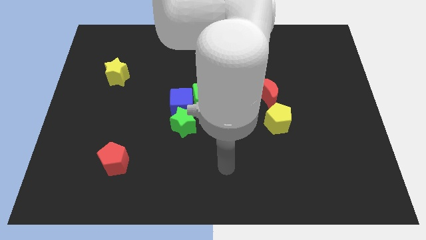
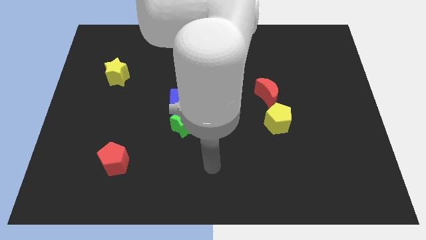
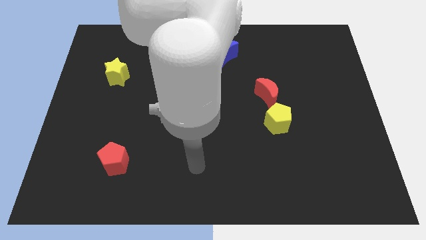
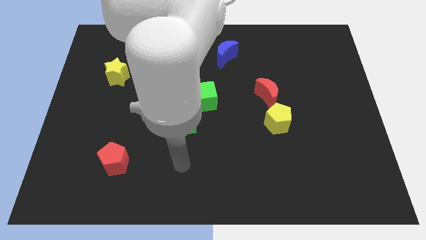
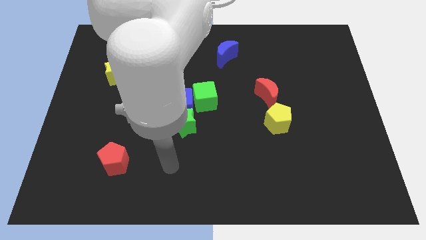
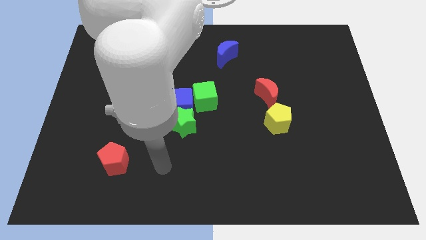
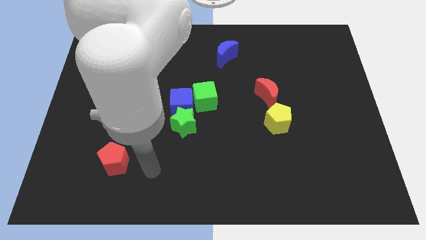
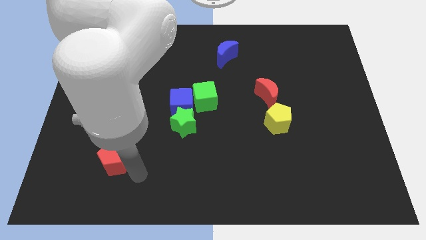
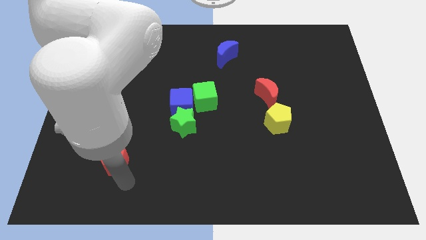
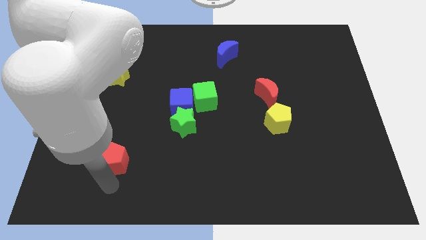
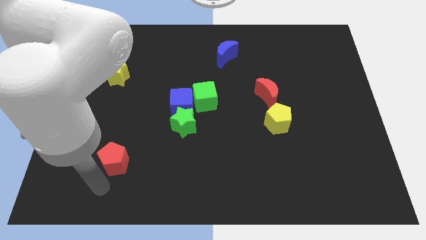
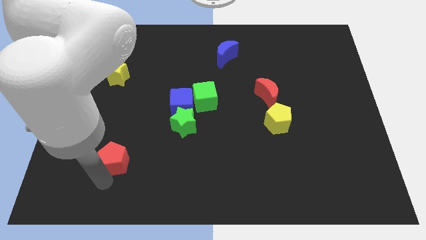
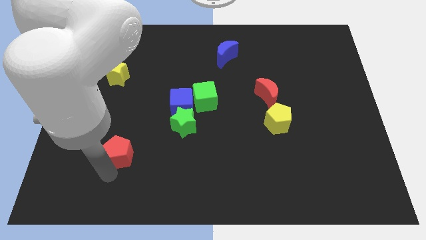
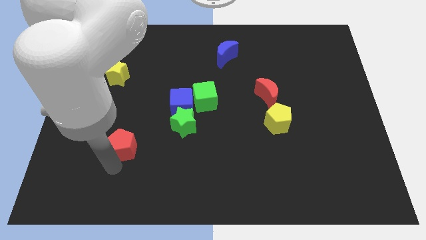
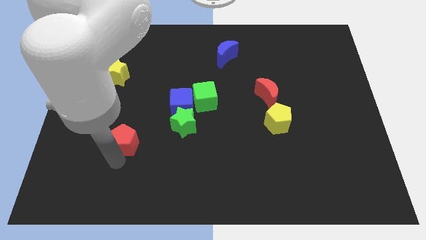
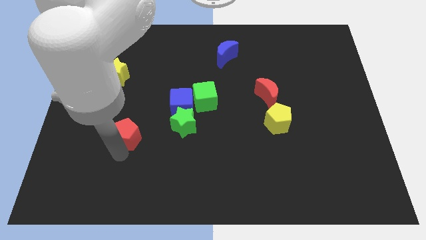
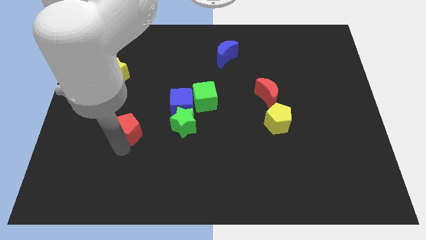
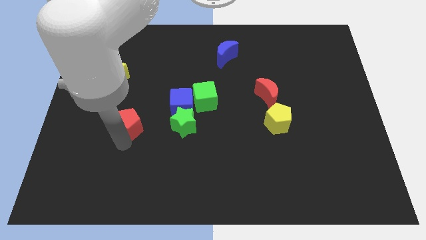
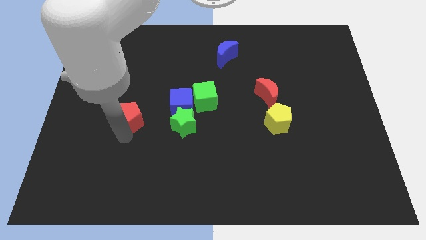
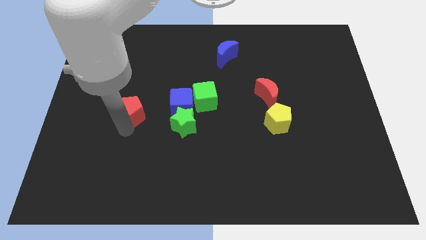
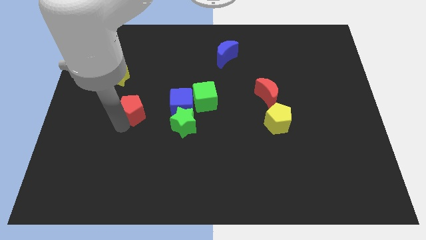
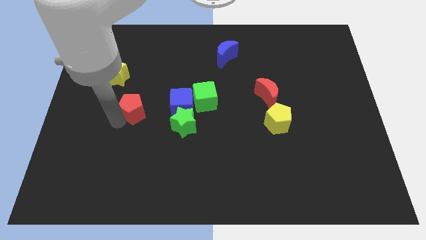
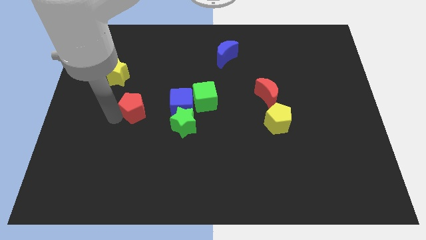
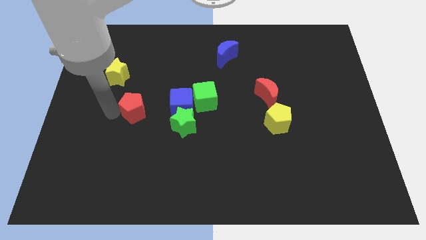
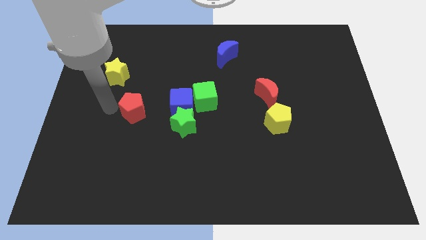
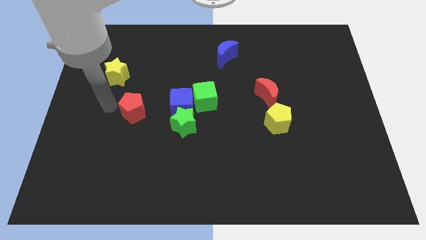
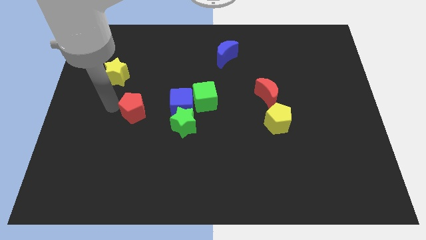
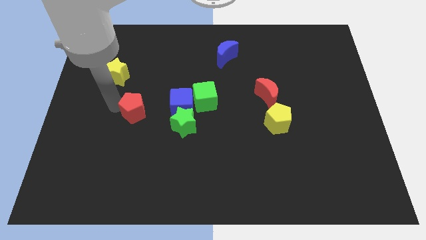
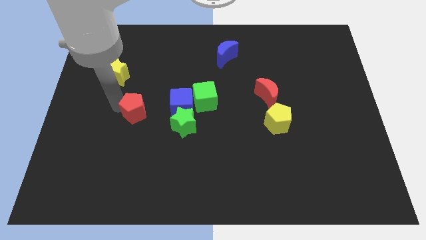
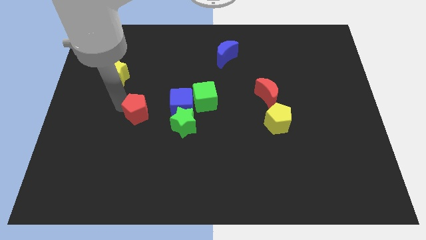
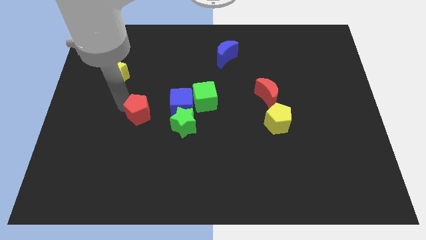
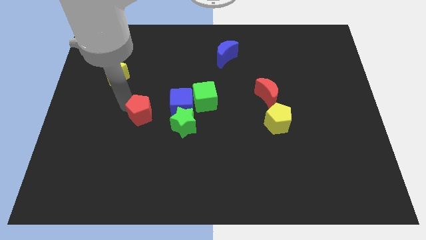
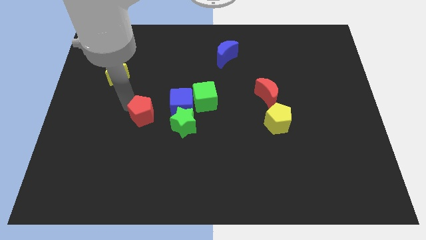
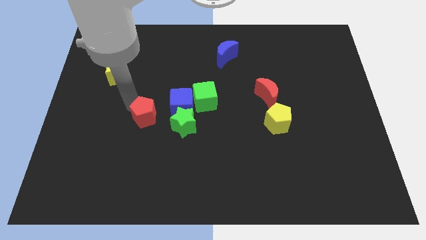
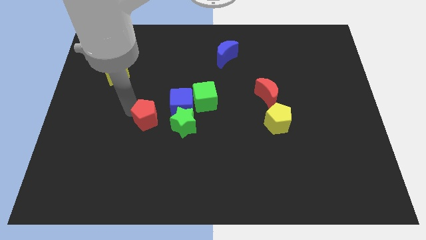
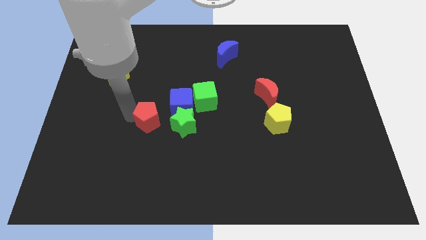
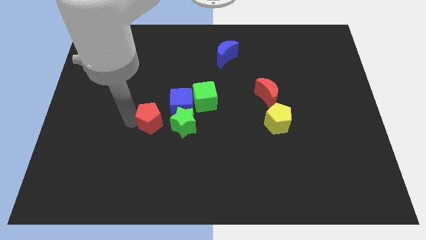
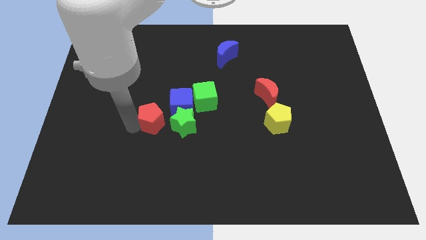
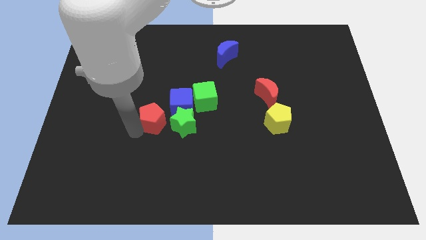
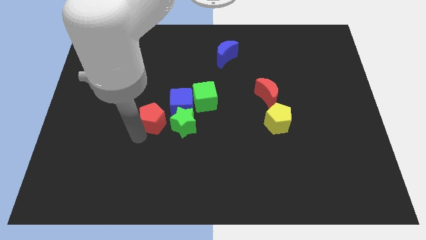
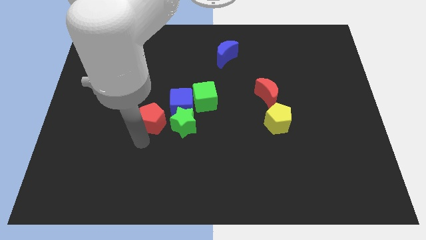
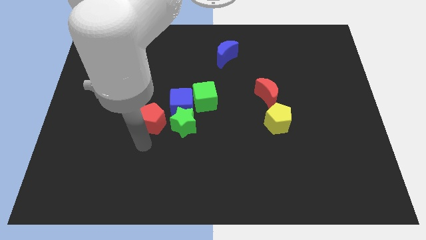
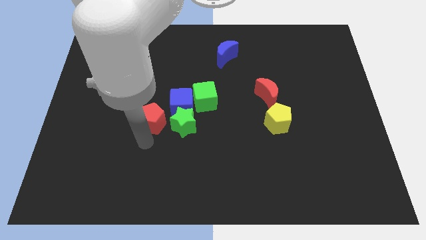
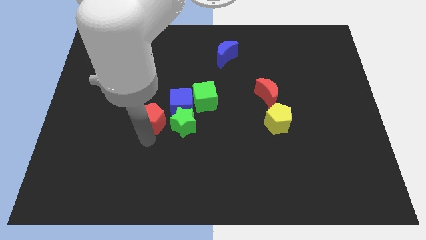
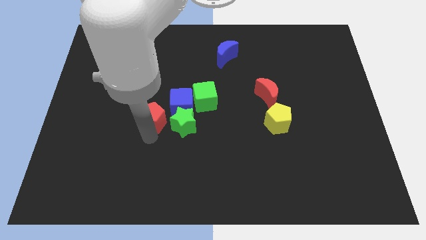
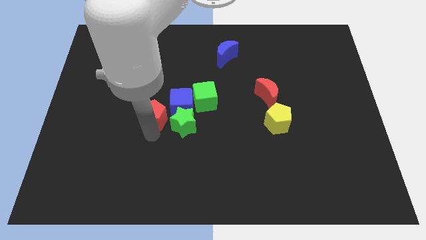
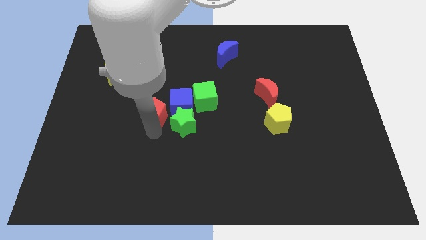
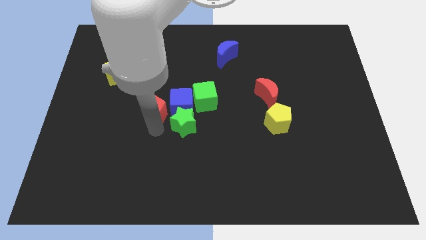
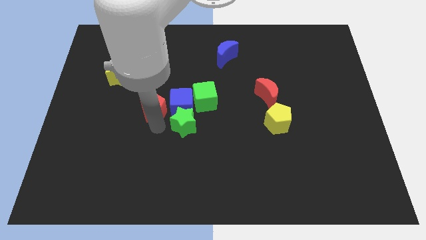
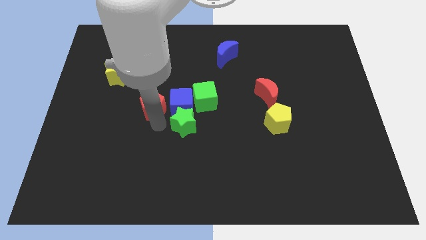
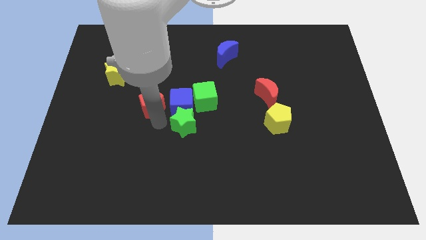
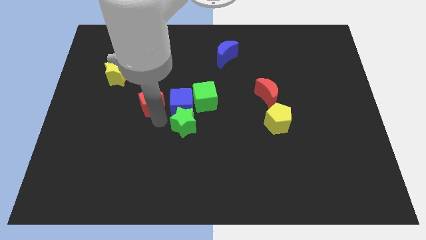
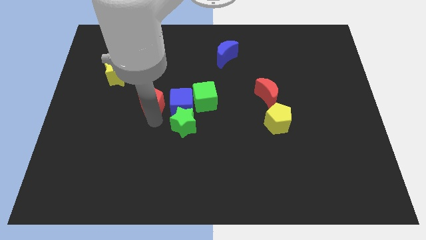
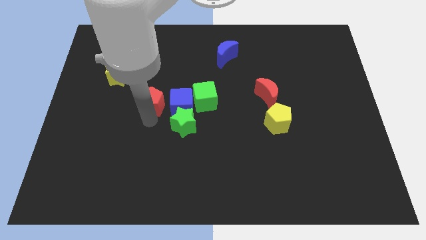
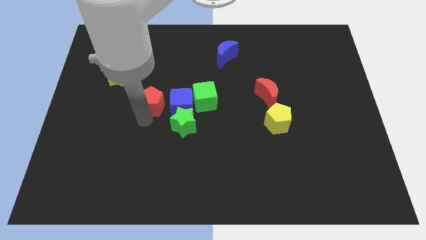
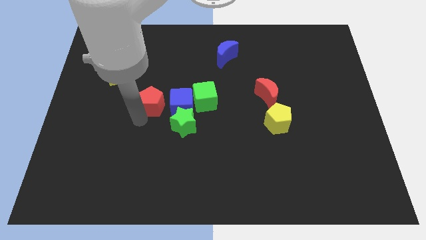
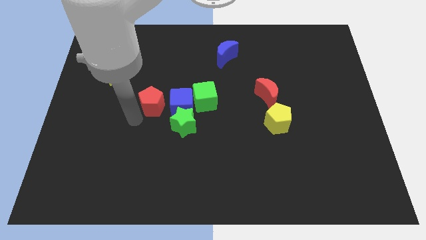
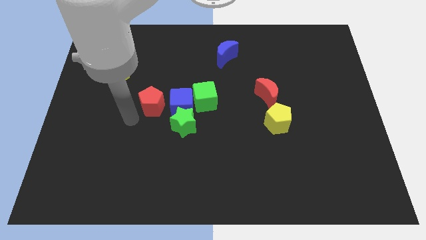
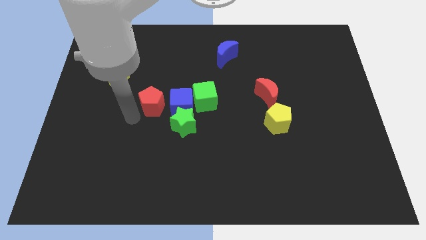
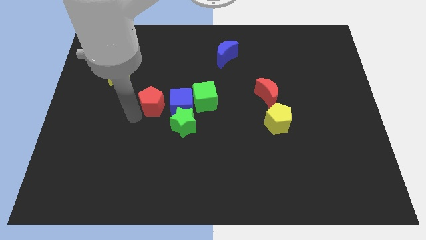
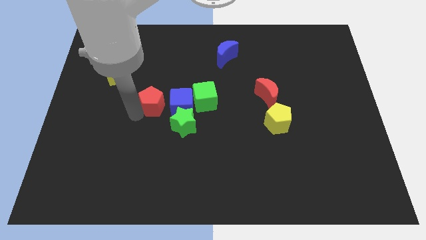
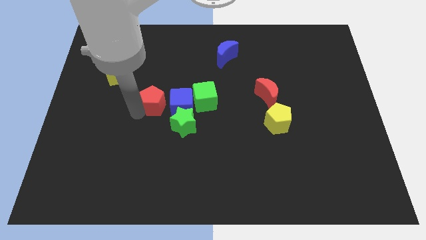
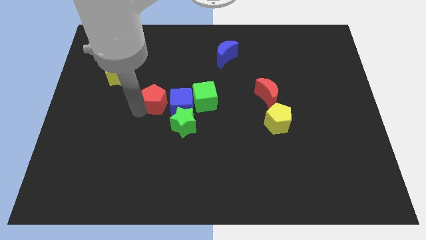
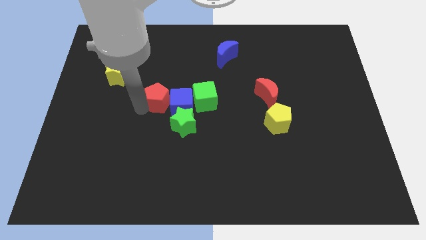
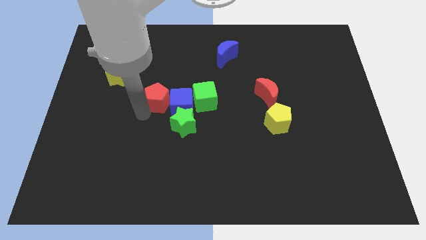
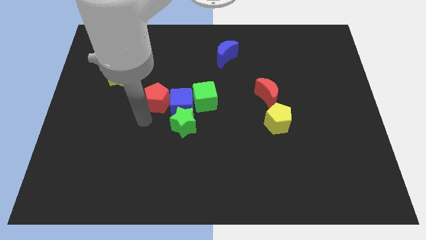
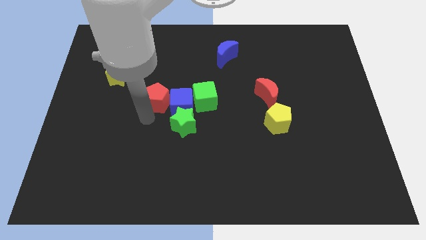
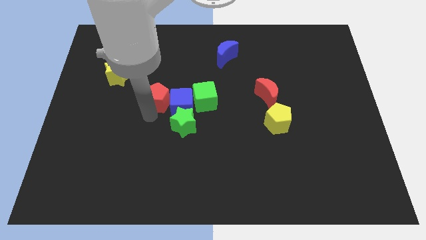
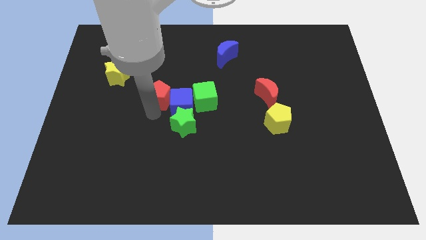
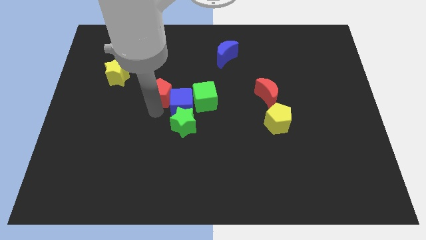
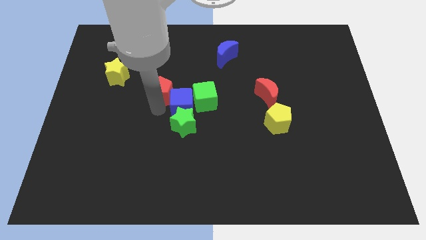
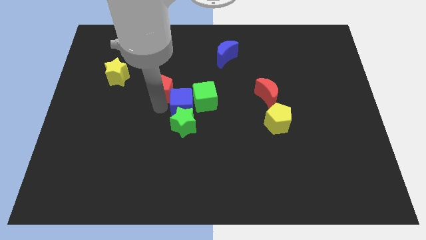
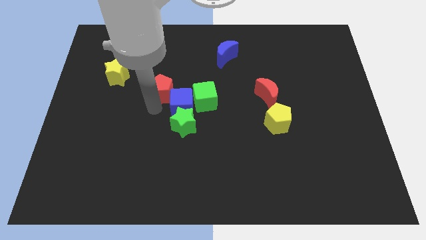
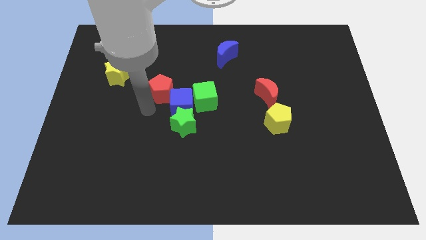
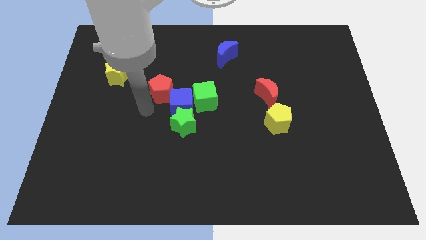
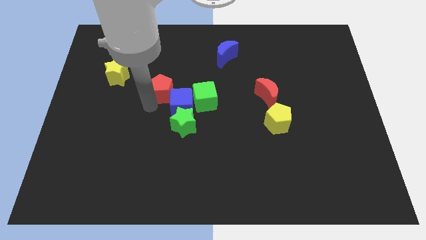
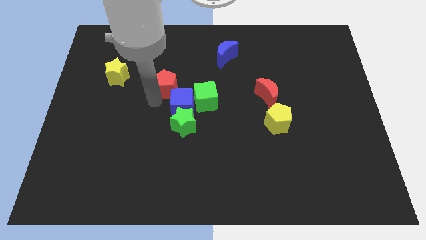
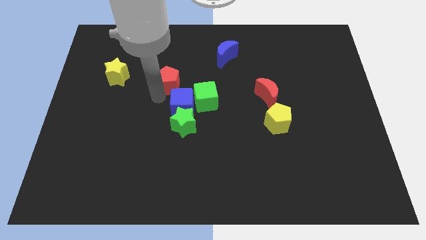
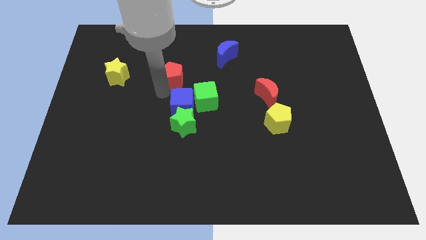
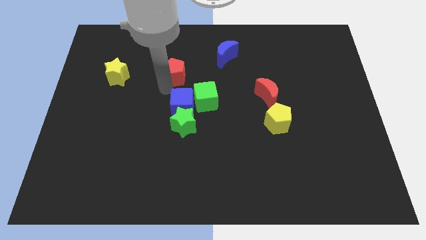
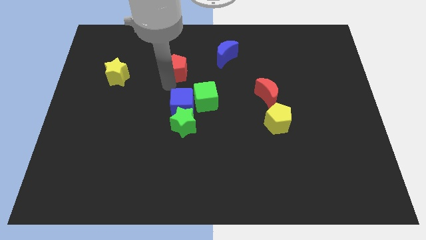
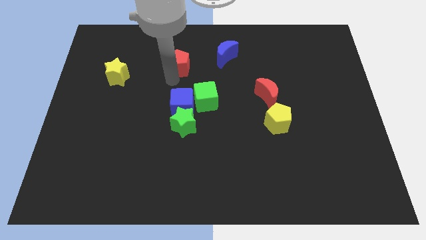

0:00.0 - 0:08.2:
push the red pentagon just left of the blue moon
